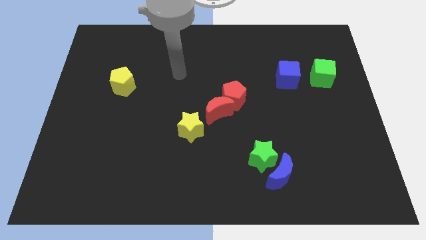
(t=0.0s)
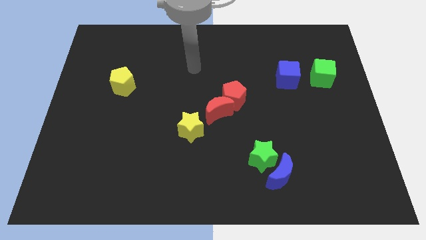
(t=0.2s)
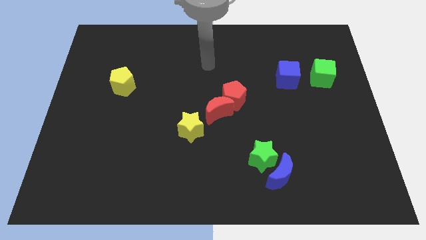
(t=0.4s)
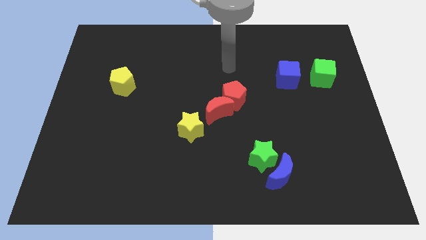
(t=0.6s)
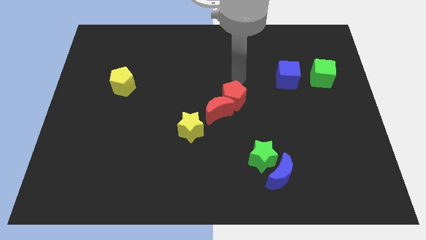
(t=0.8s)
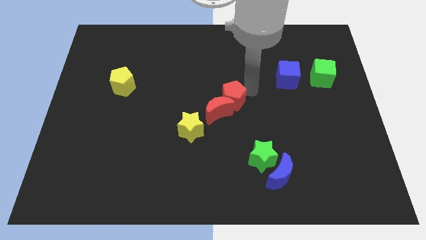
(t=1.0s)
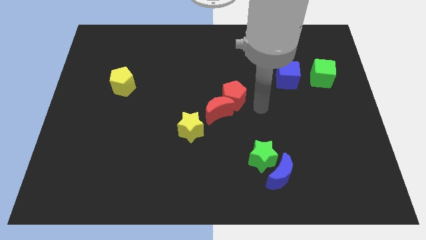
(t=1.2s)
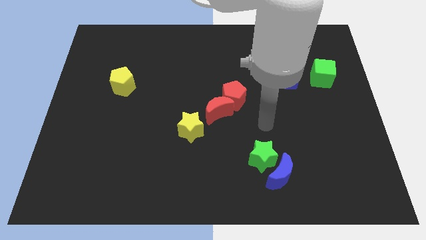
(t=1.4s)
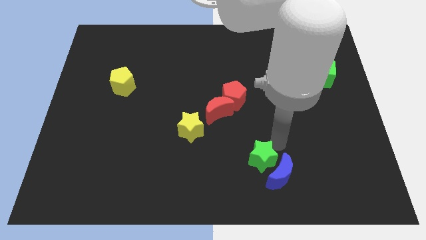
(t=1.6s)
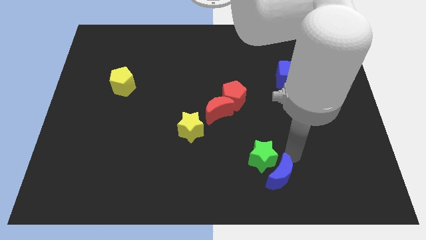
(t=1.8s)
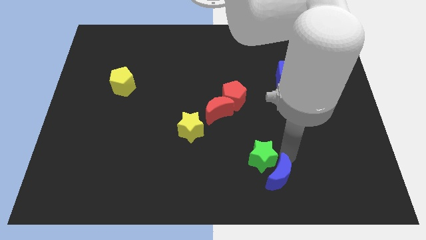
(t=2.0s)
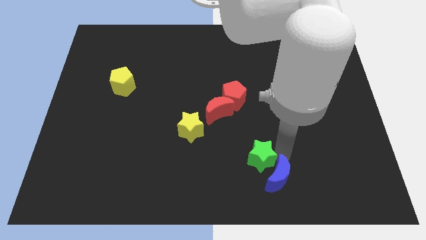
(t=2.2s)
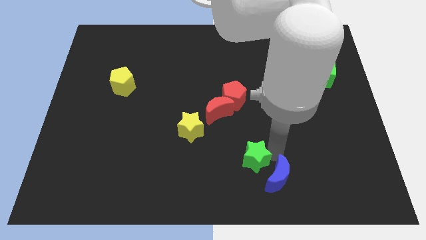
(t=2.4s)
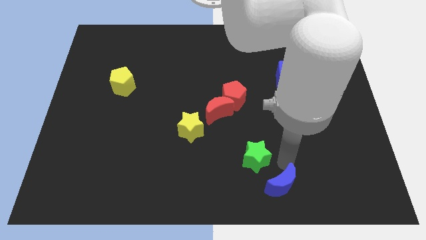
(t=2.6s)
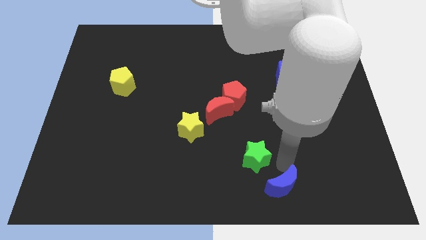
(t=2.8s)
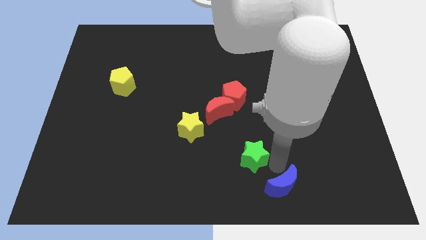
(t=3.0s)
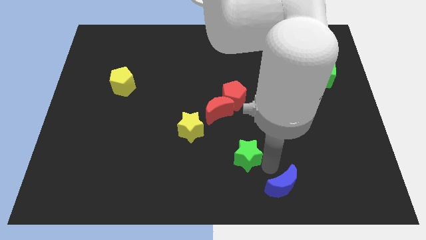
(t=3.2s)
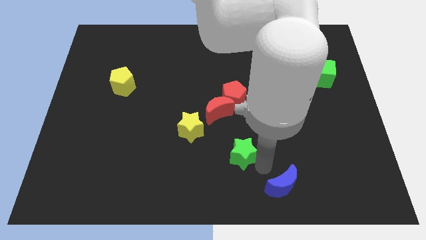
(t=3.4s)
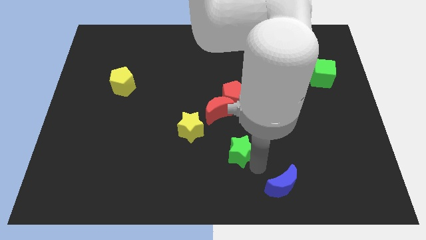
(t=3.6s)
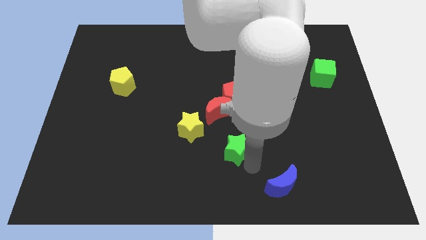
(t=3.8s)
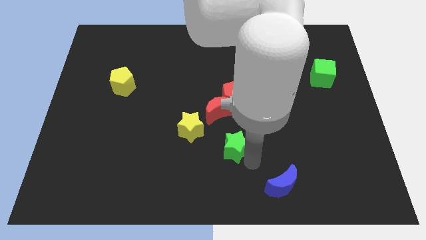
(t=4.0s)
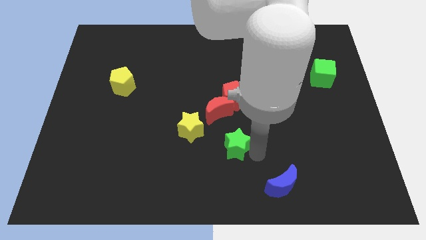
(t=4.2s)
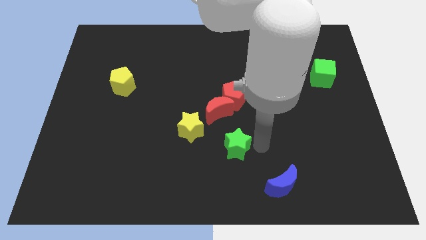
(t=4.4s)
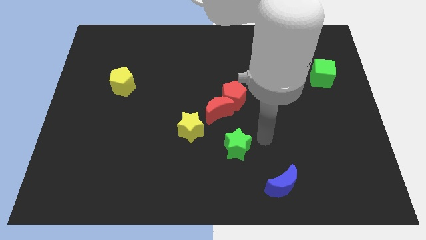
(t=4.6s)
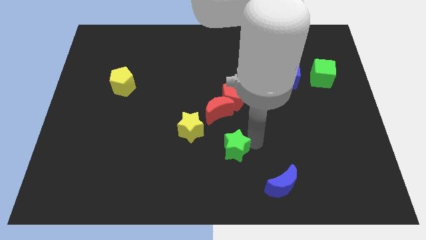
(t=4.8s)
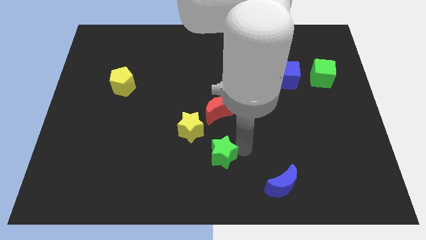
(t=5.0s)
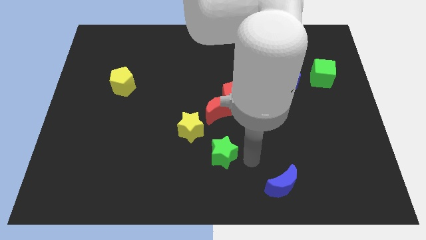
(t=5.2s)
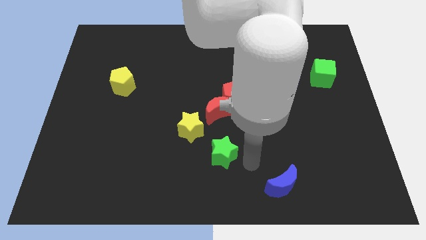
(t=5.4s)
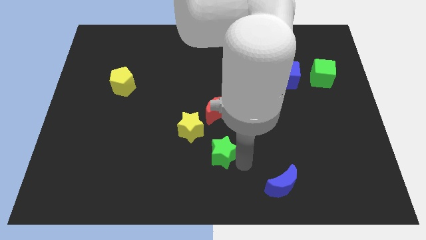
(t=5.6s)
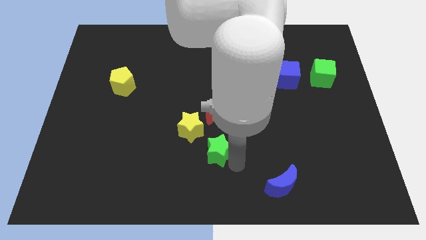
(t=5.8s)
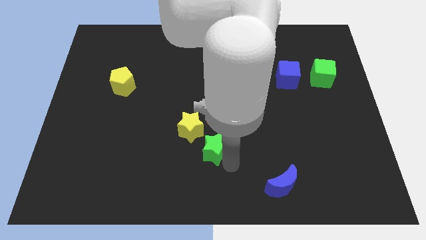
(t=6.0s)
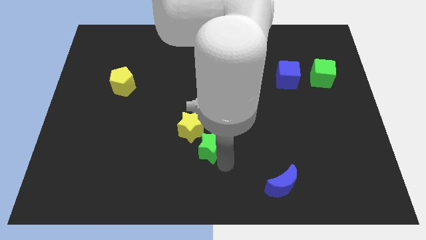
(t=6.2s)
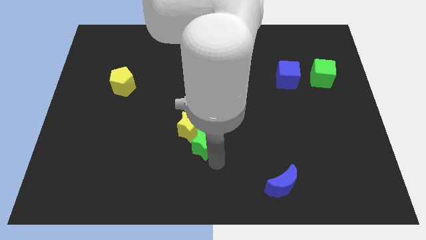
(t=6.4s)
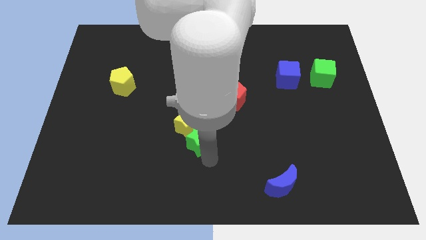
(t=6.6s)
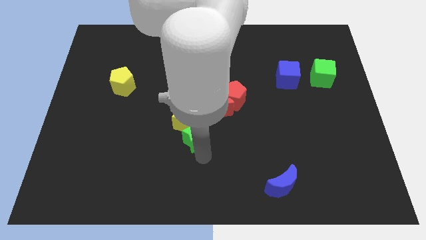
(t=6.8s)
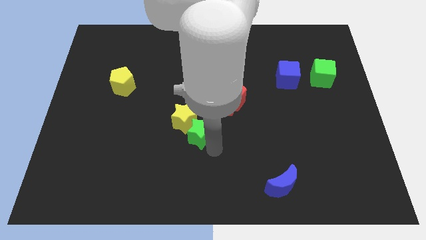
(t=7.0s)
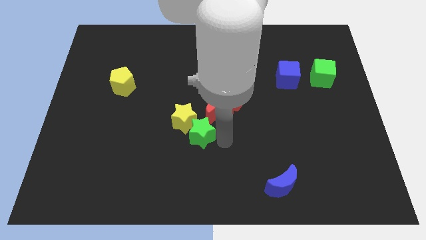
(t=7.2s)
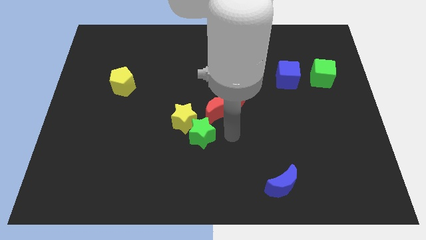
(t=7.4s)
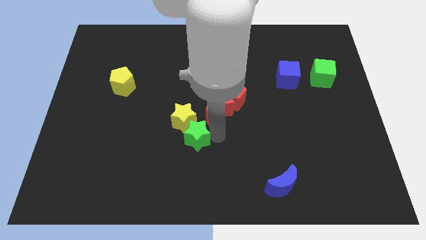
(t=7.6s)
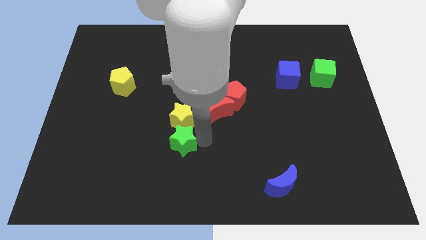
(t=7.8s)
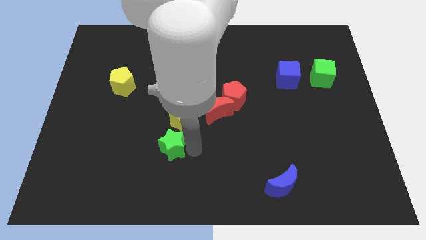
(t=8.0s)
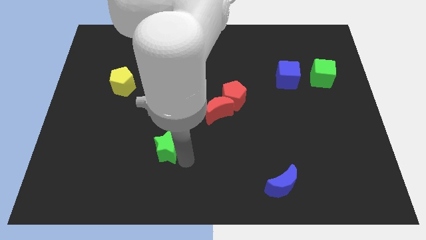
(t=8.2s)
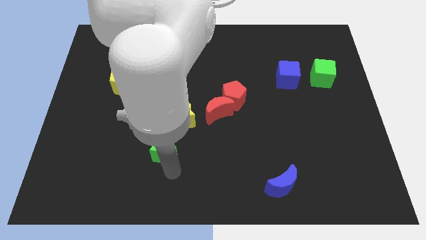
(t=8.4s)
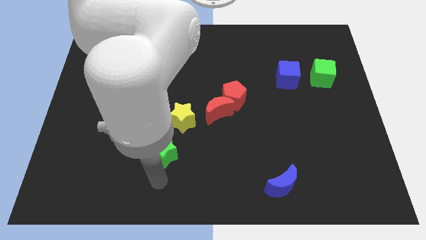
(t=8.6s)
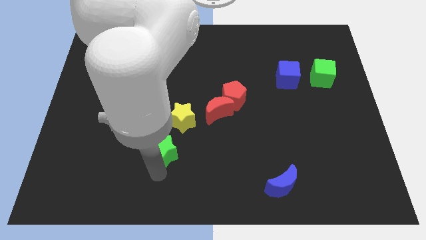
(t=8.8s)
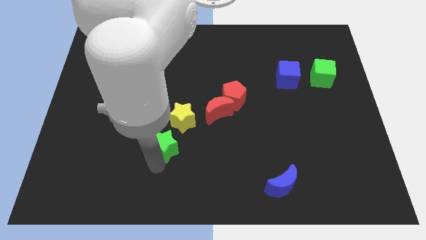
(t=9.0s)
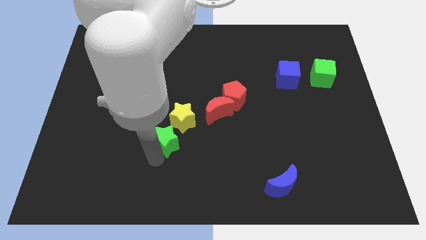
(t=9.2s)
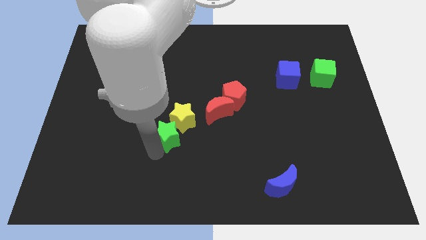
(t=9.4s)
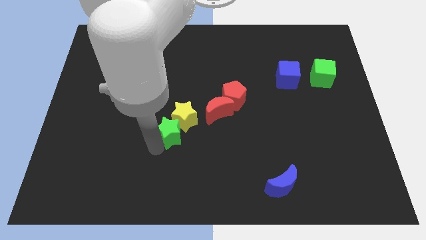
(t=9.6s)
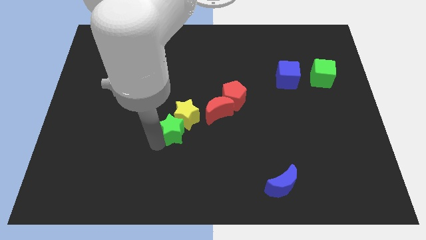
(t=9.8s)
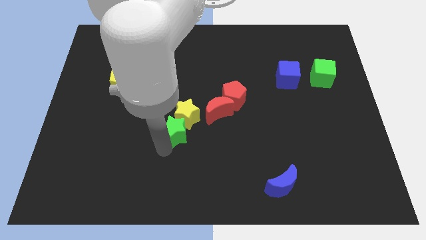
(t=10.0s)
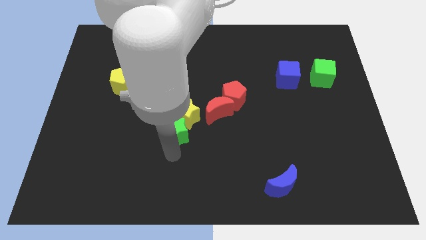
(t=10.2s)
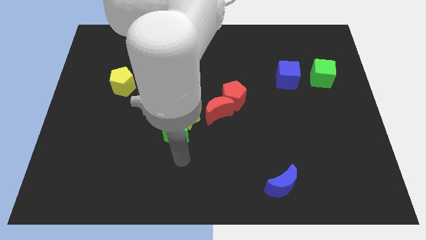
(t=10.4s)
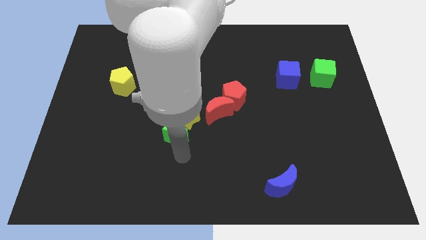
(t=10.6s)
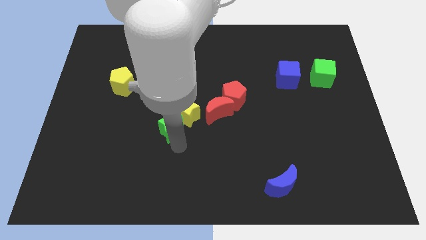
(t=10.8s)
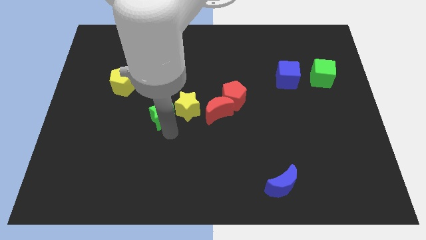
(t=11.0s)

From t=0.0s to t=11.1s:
slide the green star diagonally up and left

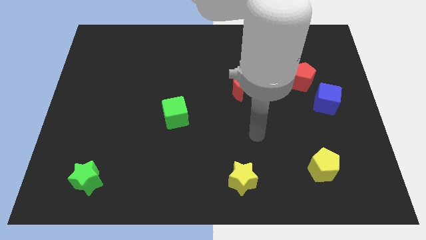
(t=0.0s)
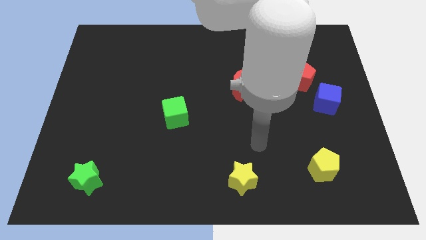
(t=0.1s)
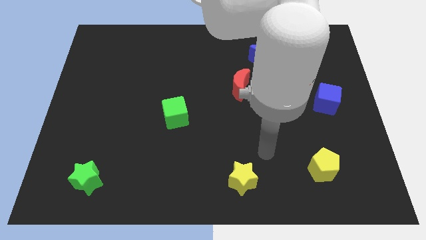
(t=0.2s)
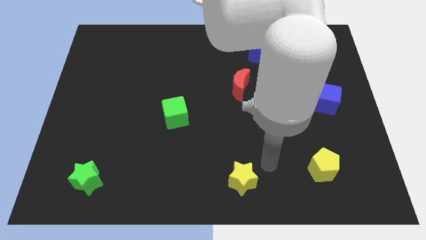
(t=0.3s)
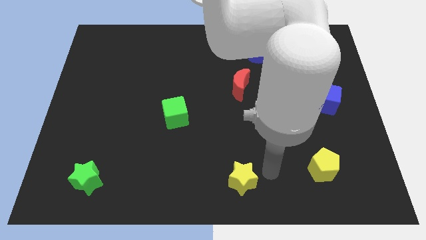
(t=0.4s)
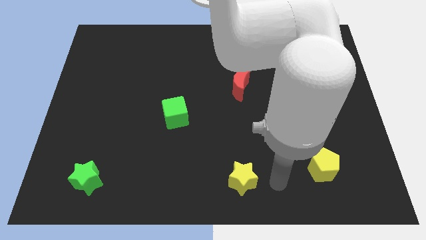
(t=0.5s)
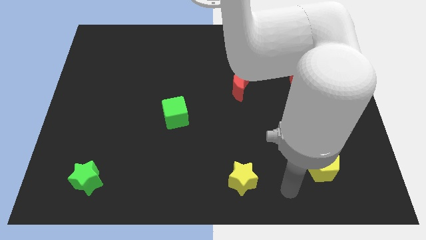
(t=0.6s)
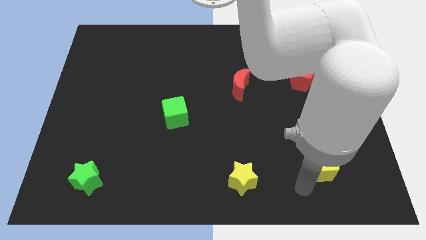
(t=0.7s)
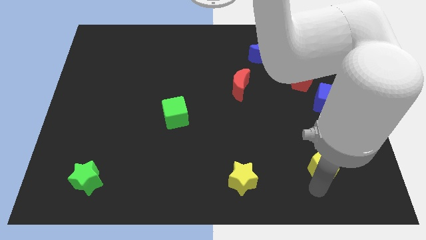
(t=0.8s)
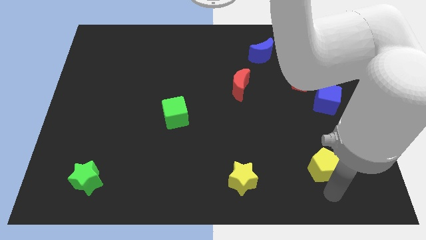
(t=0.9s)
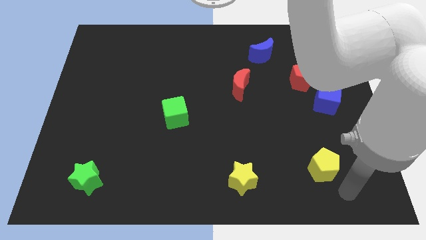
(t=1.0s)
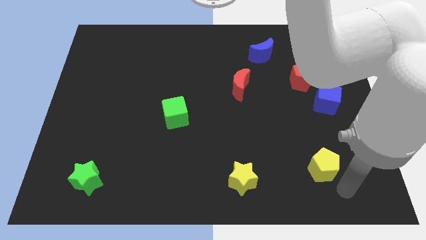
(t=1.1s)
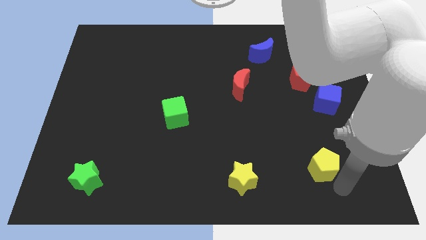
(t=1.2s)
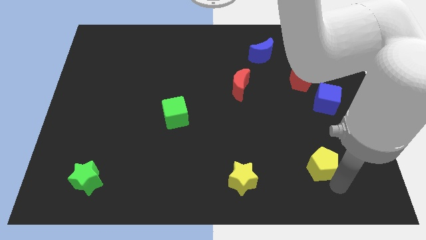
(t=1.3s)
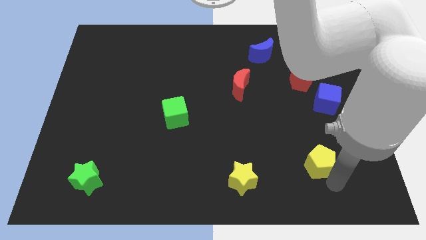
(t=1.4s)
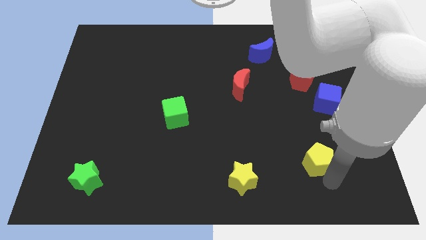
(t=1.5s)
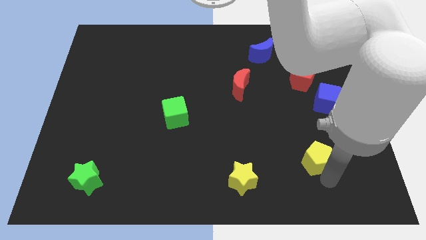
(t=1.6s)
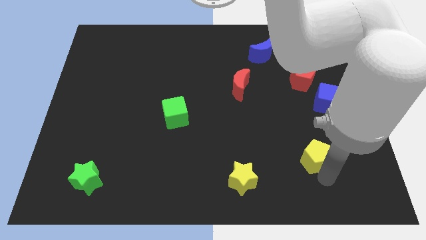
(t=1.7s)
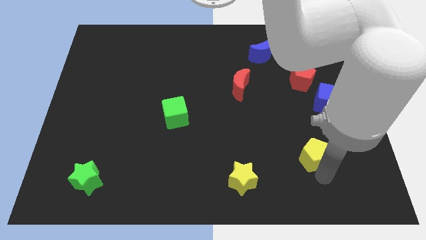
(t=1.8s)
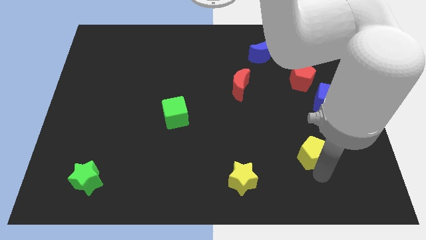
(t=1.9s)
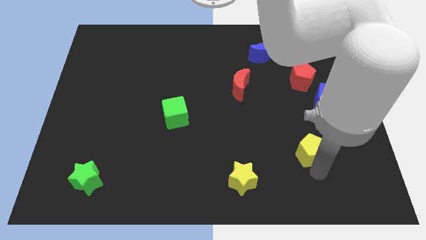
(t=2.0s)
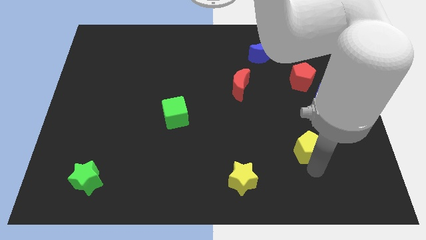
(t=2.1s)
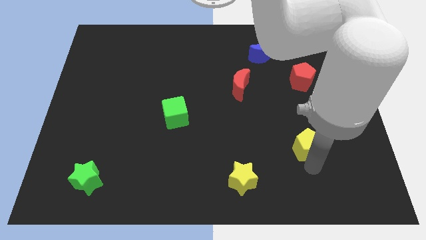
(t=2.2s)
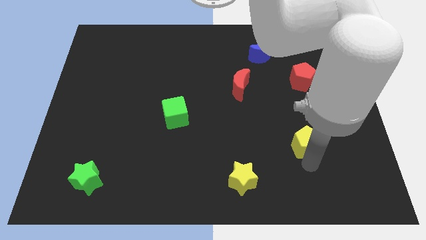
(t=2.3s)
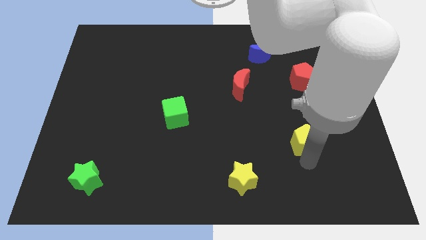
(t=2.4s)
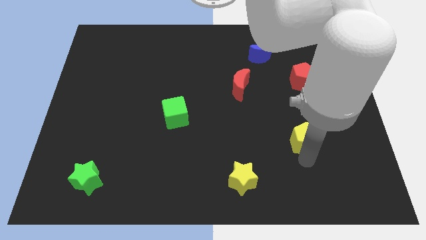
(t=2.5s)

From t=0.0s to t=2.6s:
move the yellow pentagon up and to the left diagonally a little bit
